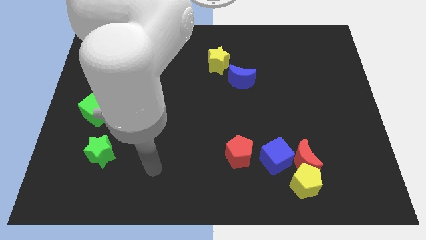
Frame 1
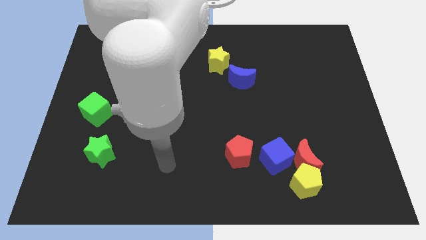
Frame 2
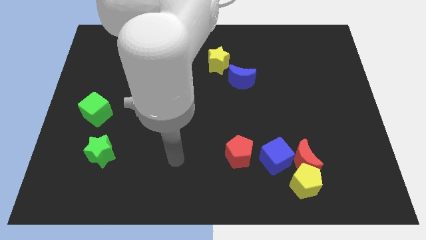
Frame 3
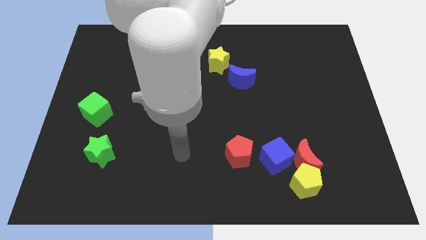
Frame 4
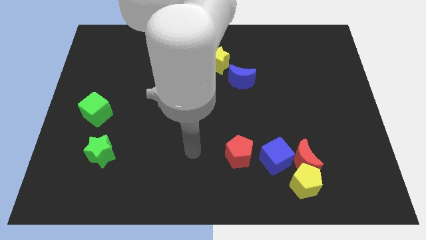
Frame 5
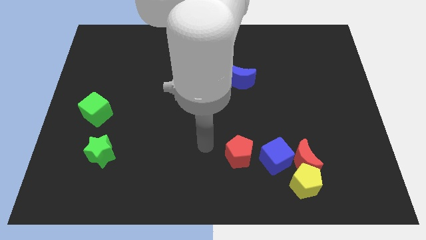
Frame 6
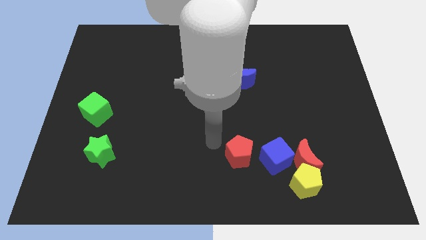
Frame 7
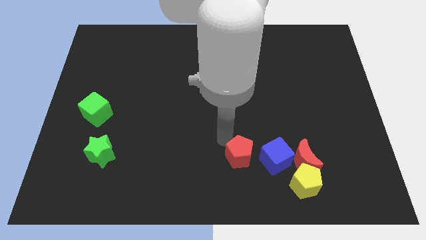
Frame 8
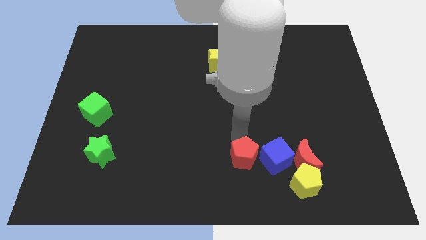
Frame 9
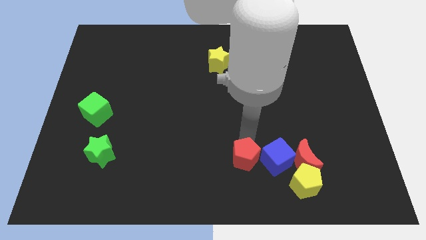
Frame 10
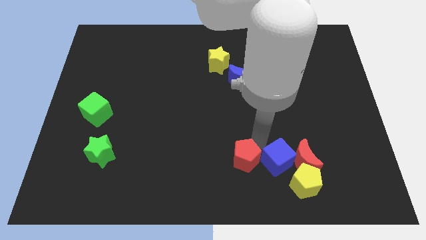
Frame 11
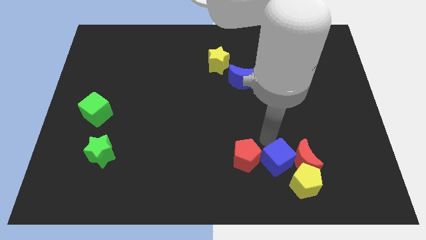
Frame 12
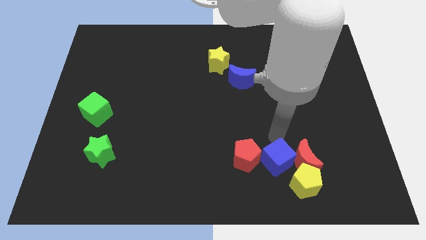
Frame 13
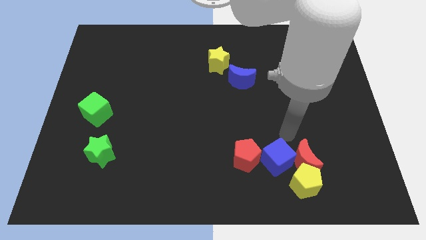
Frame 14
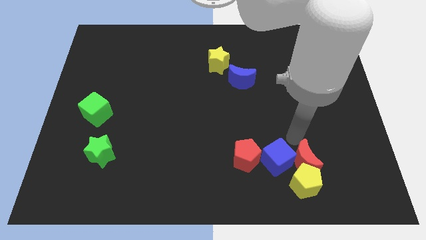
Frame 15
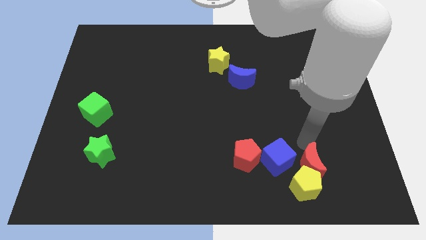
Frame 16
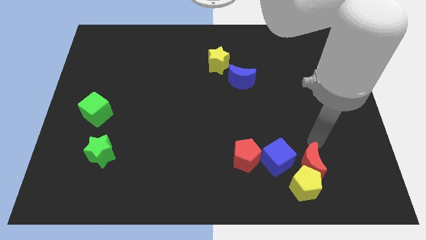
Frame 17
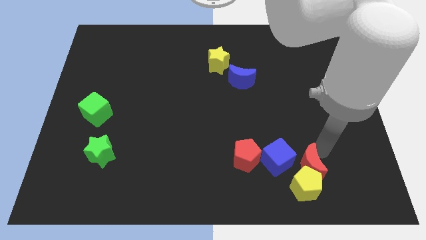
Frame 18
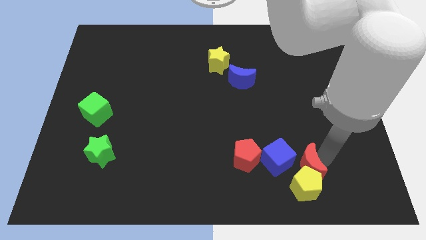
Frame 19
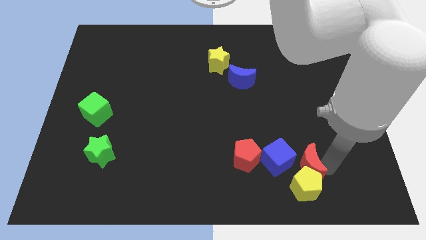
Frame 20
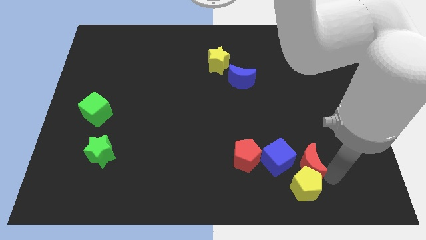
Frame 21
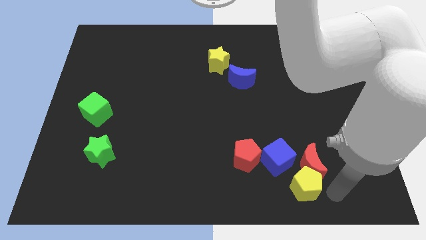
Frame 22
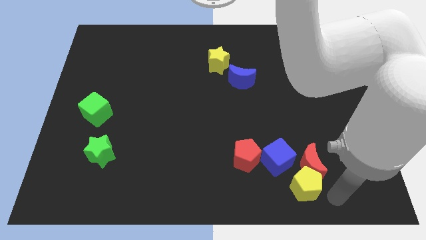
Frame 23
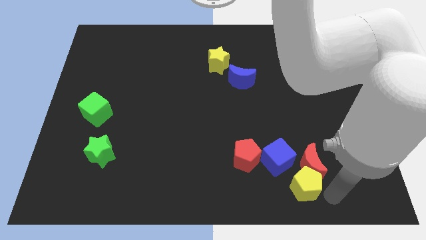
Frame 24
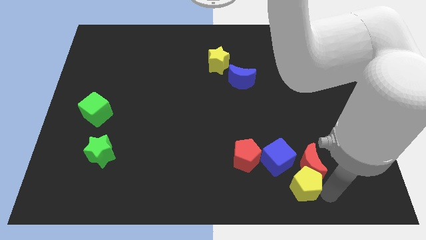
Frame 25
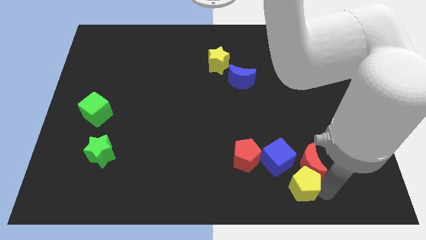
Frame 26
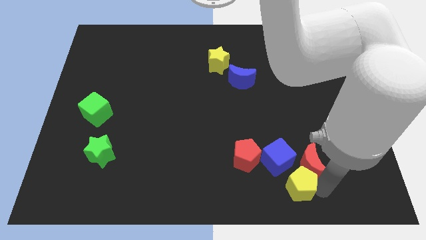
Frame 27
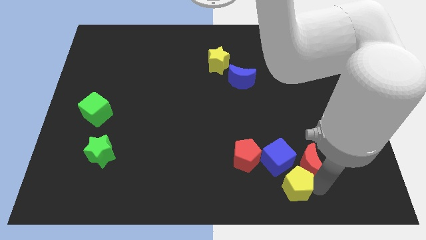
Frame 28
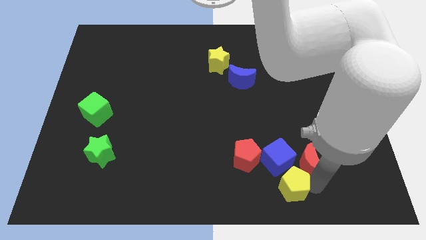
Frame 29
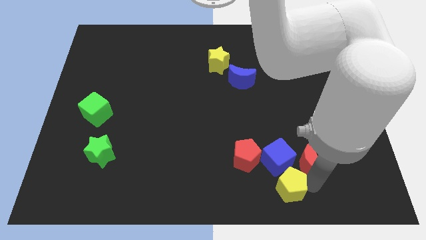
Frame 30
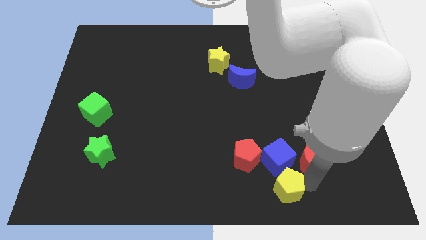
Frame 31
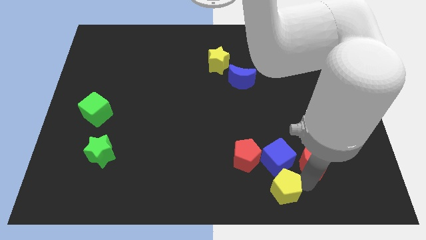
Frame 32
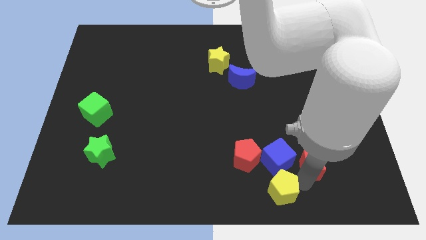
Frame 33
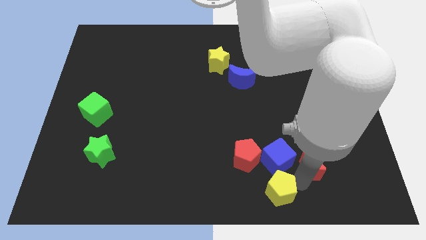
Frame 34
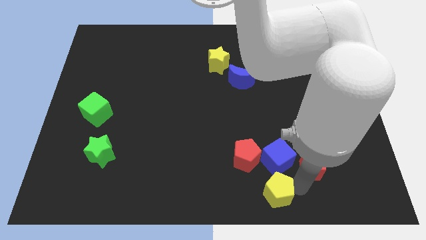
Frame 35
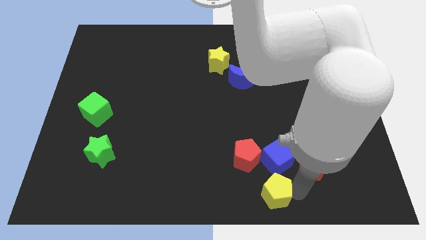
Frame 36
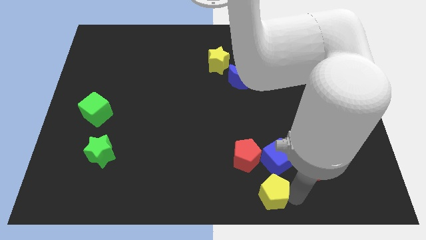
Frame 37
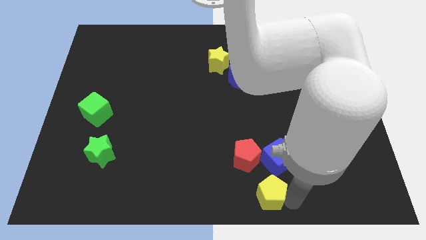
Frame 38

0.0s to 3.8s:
move the yellow pentagon a little left

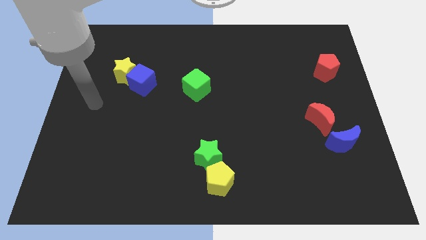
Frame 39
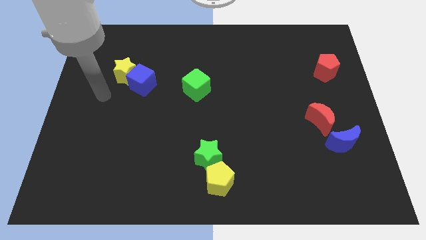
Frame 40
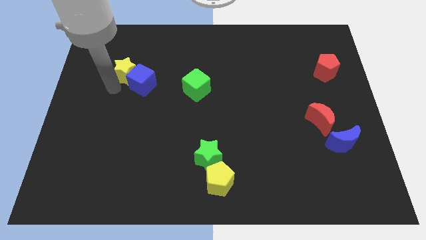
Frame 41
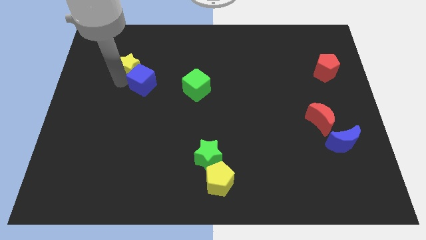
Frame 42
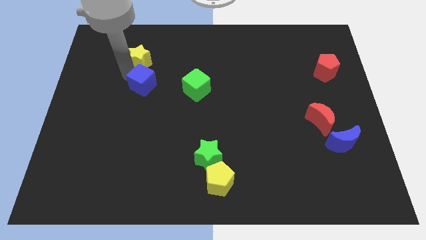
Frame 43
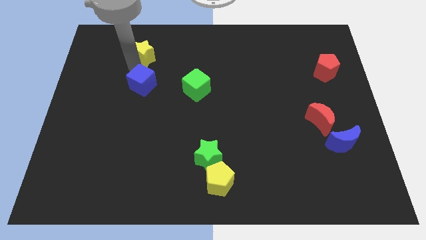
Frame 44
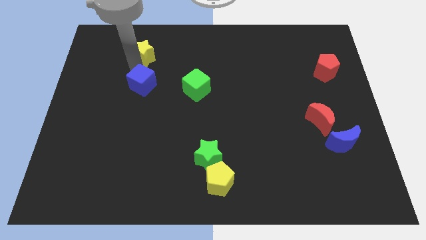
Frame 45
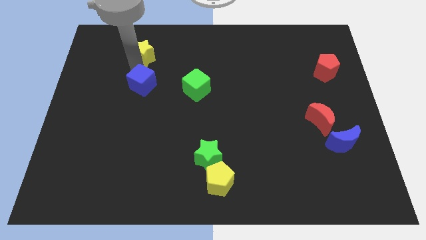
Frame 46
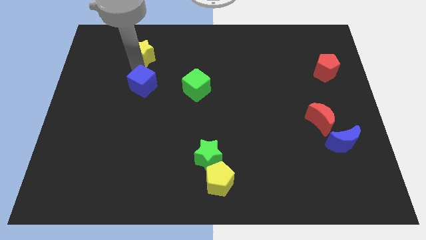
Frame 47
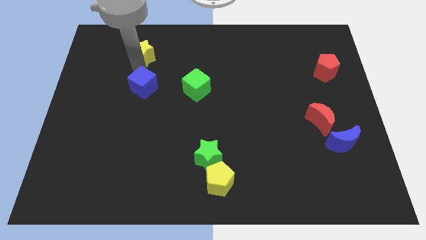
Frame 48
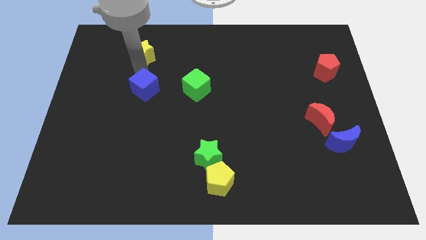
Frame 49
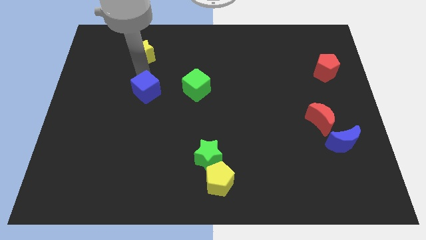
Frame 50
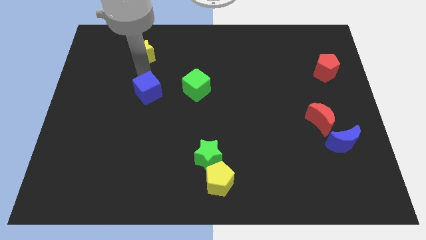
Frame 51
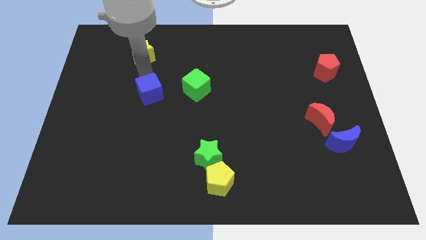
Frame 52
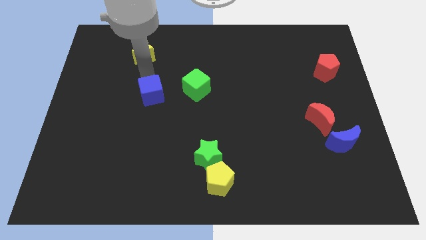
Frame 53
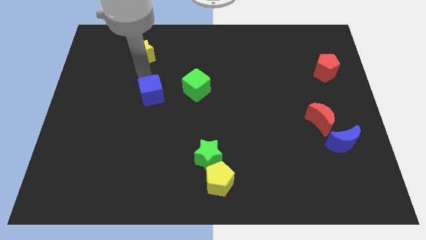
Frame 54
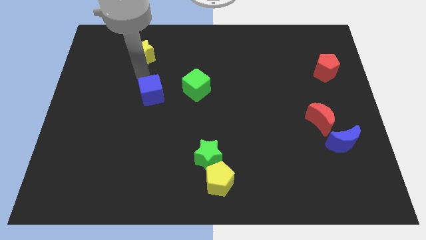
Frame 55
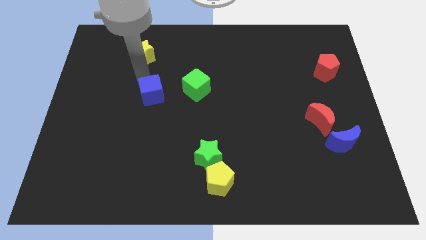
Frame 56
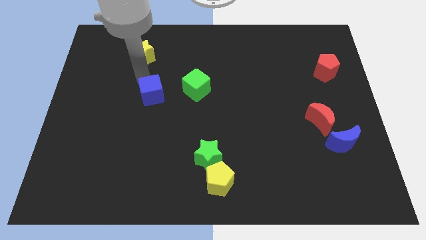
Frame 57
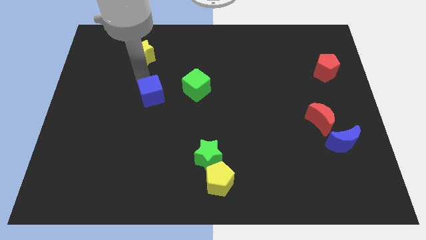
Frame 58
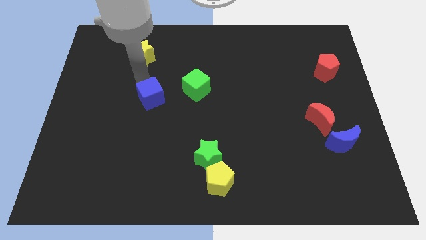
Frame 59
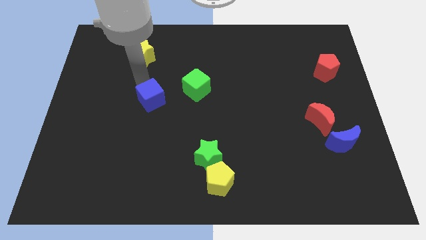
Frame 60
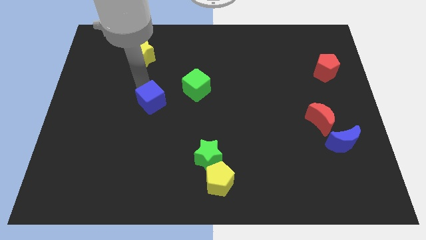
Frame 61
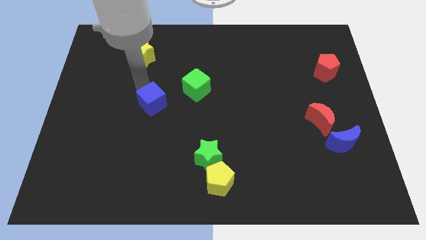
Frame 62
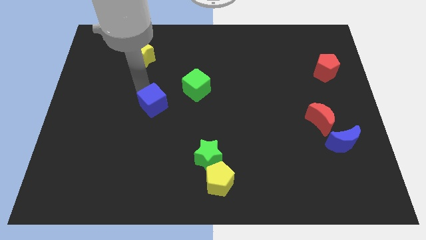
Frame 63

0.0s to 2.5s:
slide the blue cube diagonally downwards and to the right a bit

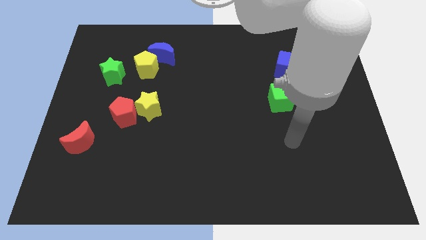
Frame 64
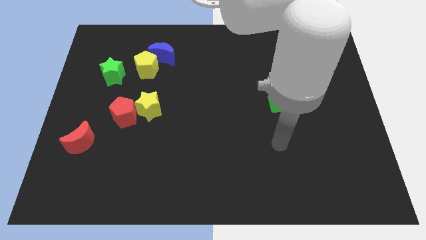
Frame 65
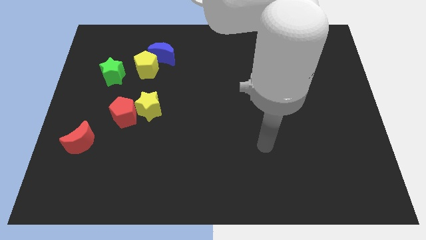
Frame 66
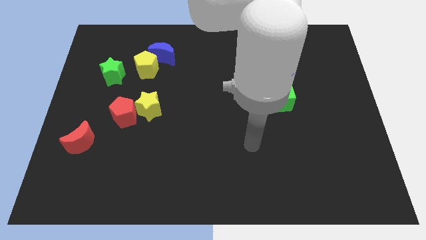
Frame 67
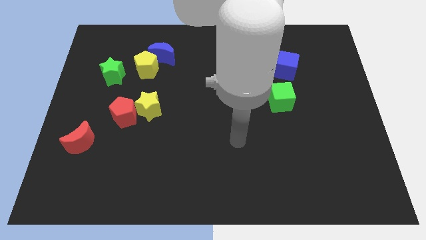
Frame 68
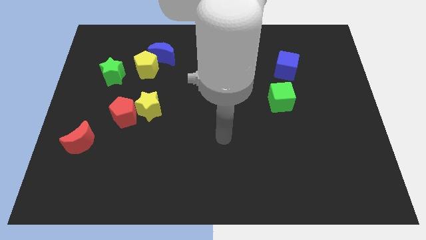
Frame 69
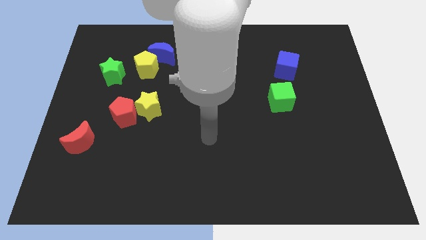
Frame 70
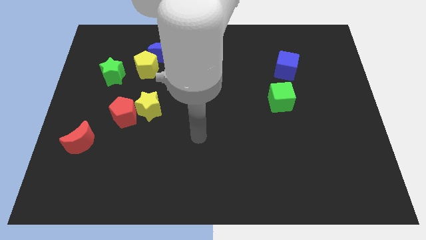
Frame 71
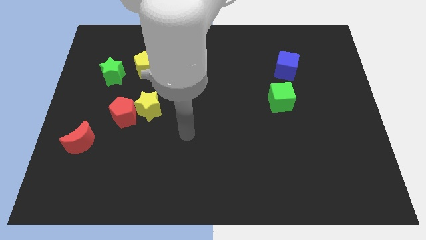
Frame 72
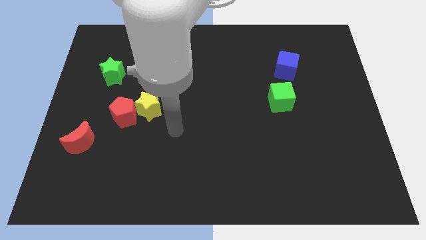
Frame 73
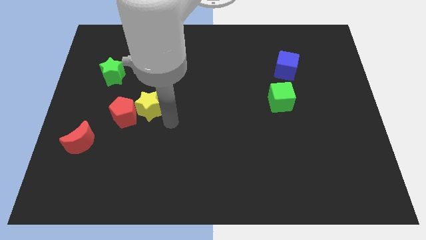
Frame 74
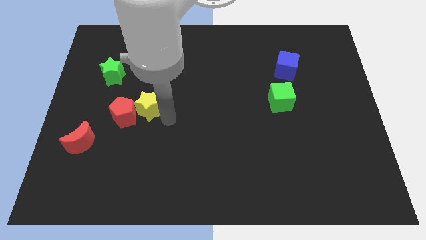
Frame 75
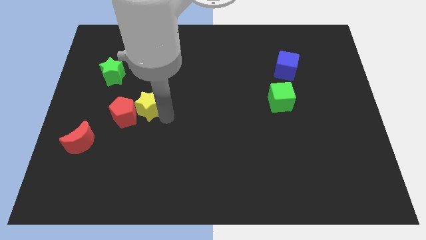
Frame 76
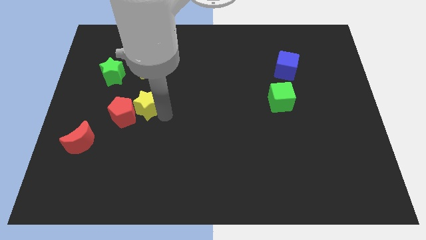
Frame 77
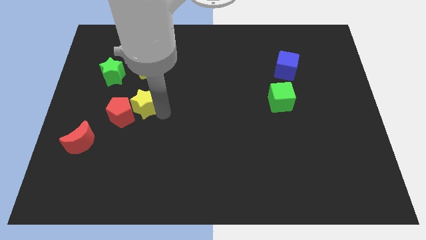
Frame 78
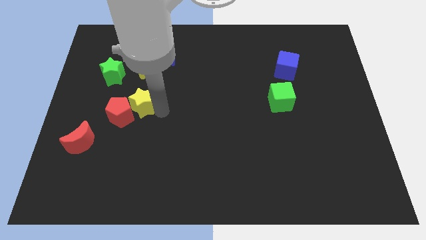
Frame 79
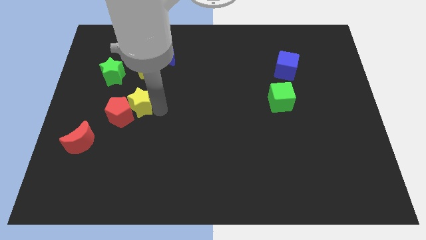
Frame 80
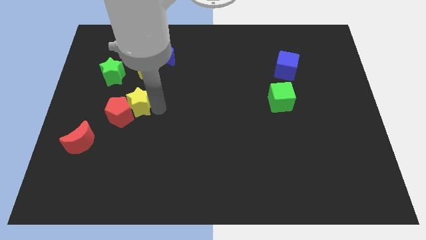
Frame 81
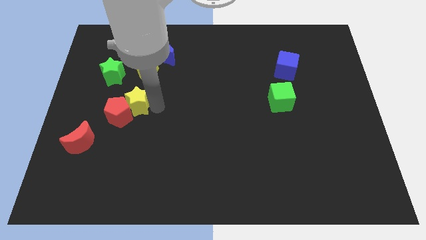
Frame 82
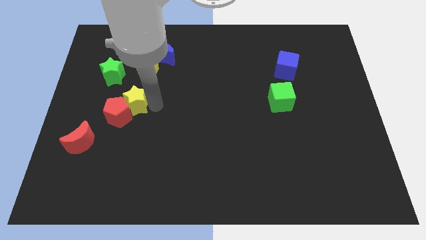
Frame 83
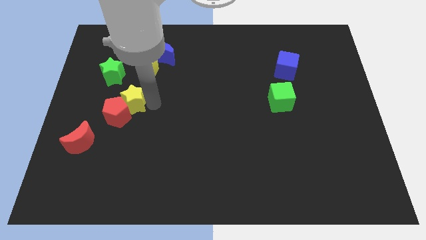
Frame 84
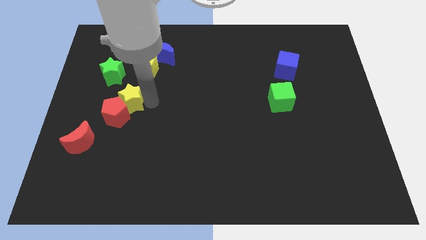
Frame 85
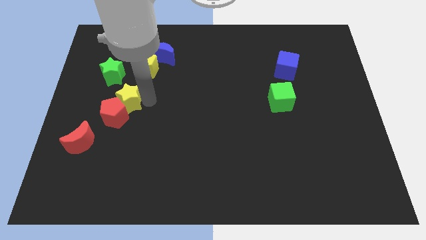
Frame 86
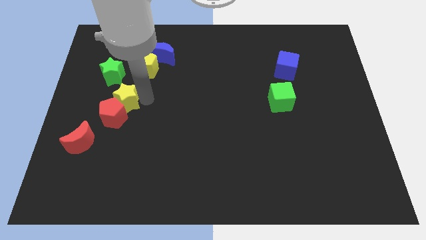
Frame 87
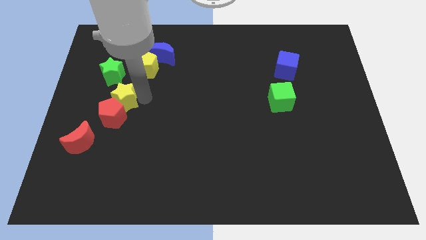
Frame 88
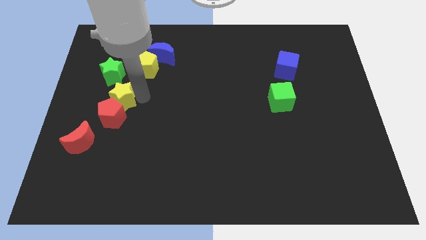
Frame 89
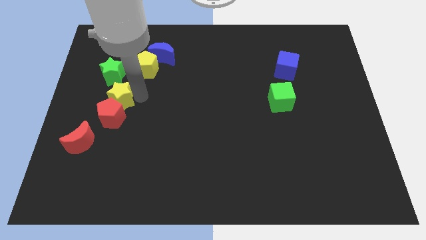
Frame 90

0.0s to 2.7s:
move the yellow star diagonally up and to the left slightly
